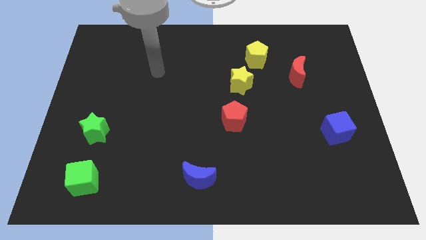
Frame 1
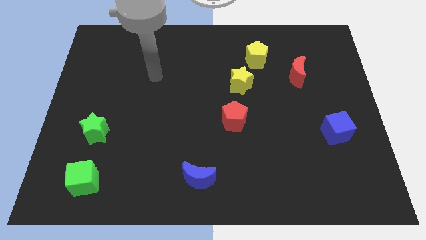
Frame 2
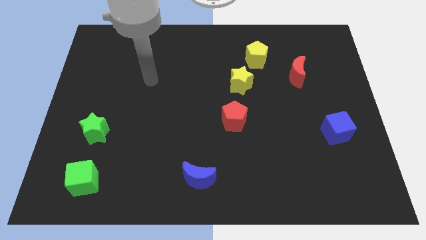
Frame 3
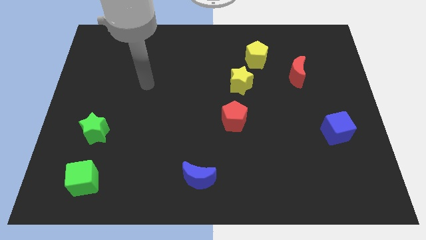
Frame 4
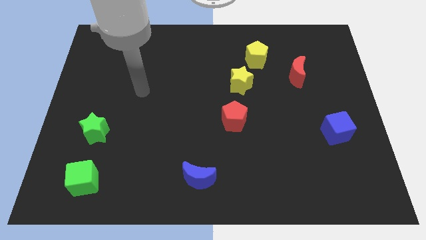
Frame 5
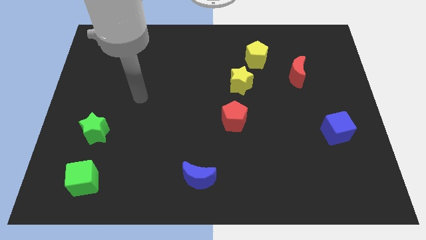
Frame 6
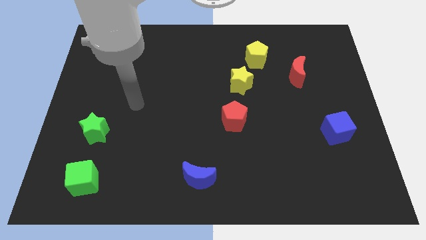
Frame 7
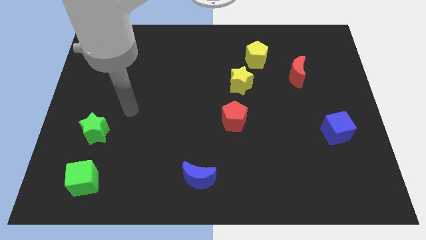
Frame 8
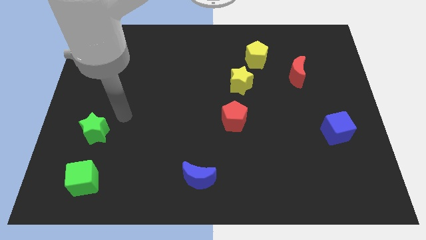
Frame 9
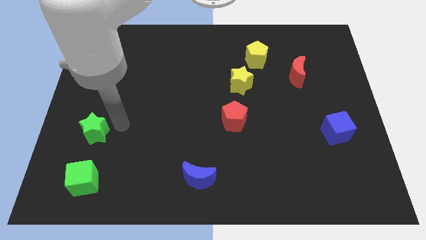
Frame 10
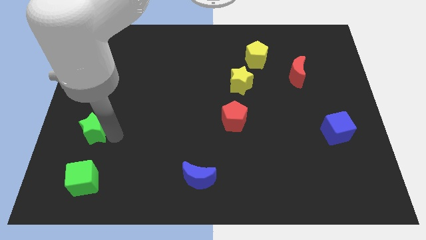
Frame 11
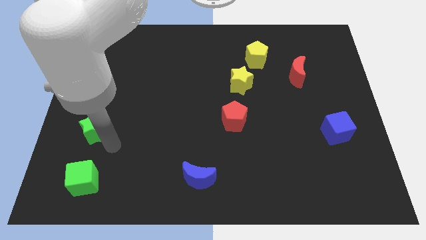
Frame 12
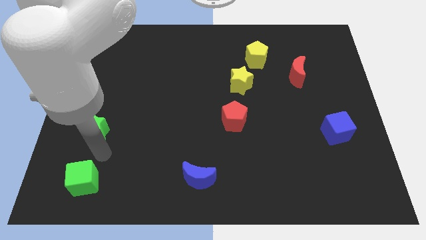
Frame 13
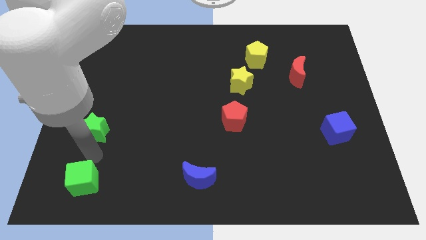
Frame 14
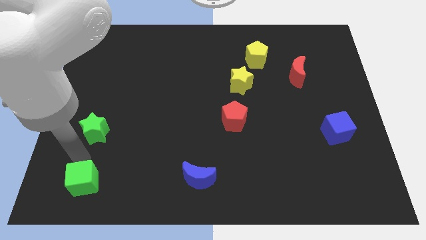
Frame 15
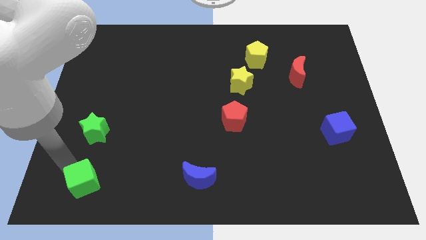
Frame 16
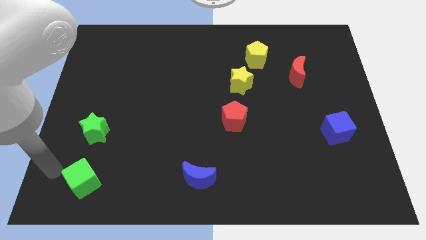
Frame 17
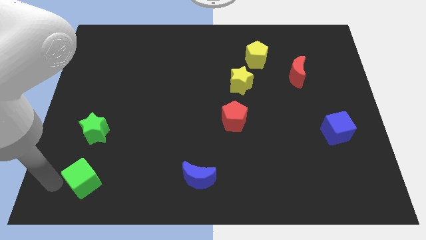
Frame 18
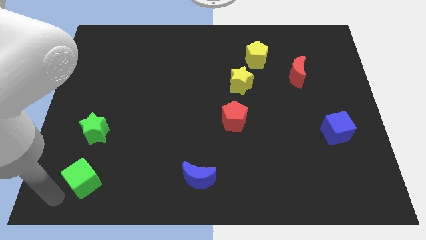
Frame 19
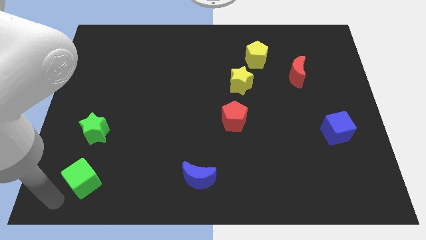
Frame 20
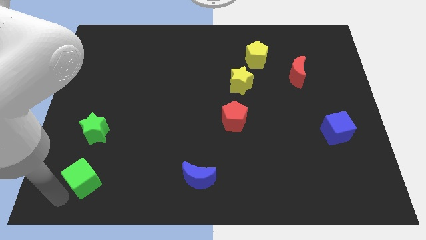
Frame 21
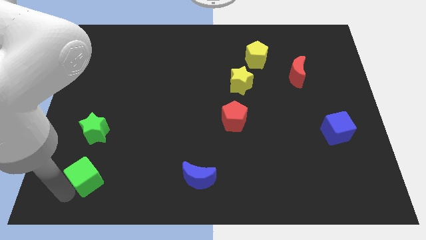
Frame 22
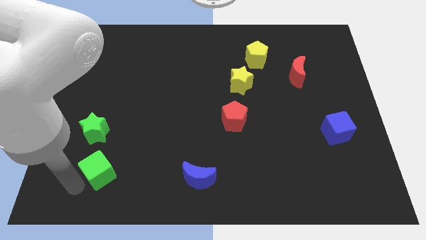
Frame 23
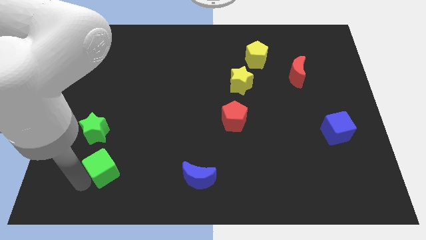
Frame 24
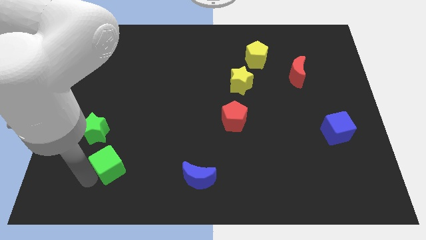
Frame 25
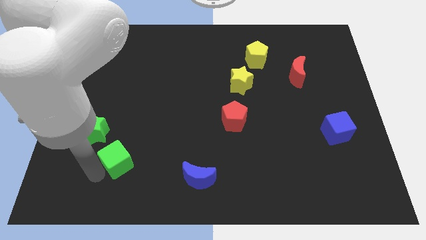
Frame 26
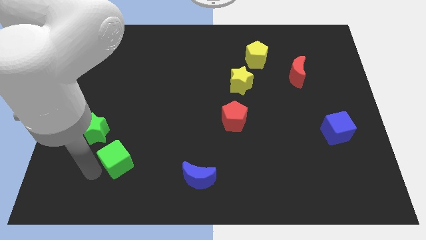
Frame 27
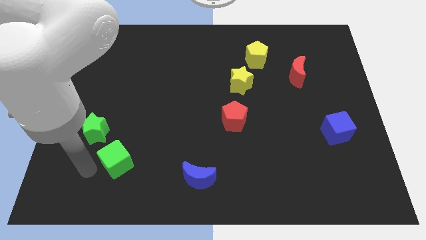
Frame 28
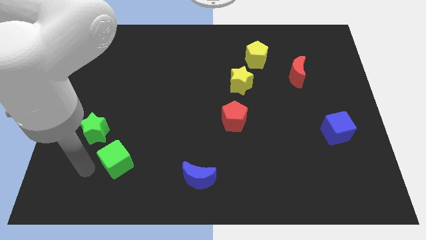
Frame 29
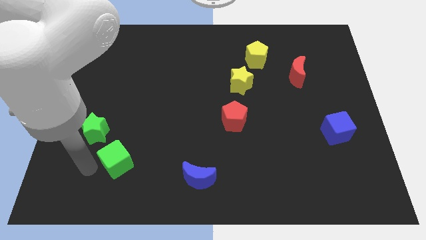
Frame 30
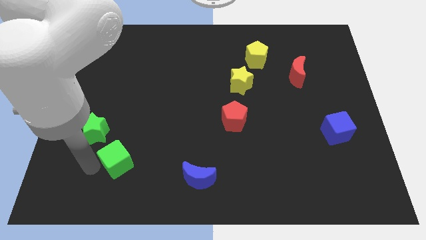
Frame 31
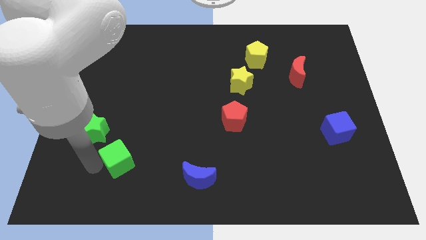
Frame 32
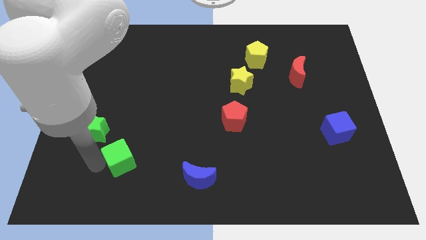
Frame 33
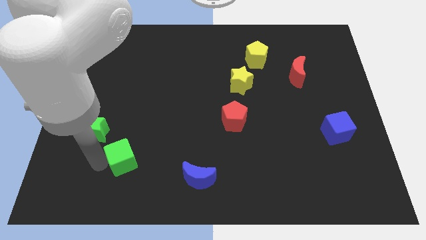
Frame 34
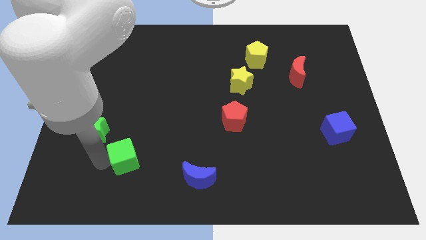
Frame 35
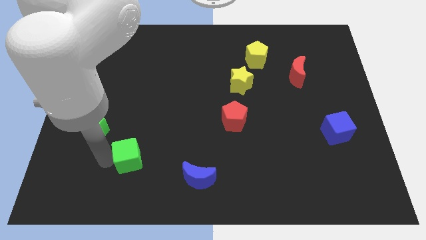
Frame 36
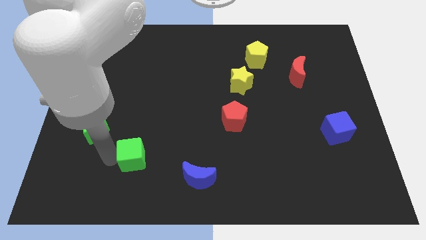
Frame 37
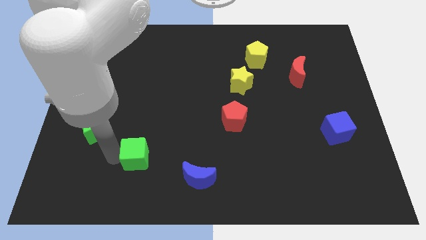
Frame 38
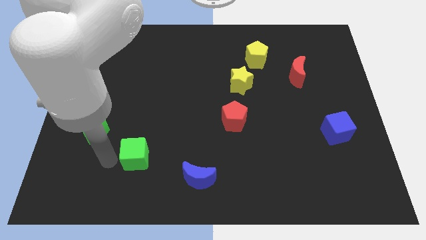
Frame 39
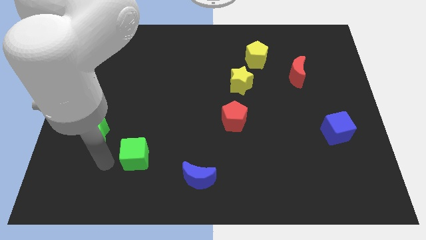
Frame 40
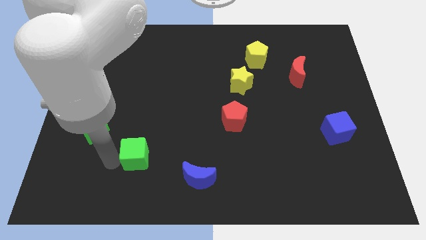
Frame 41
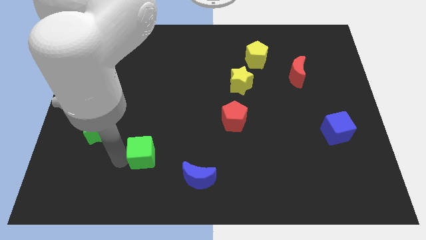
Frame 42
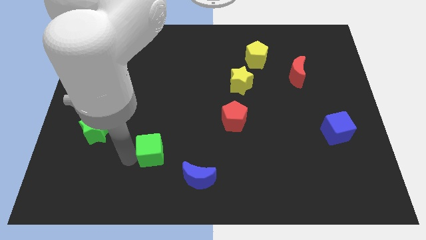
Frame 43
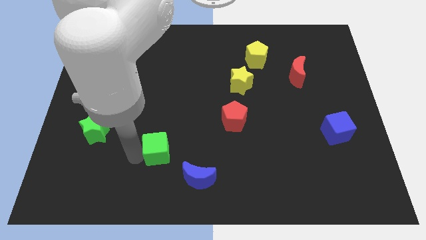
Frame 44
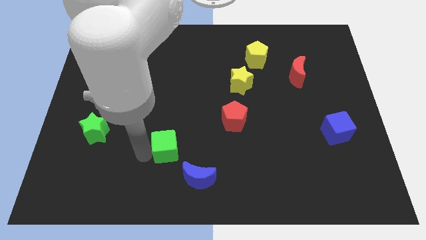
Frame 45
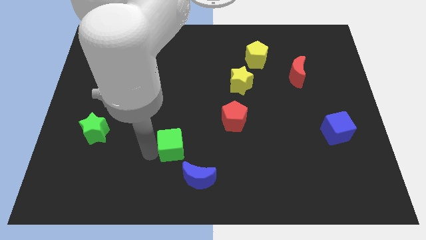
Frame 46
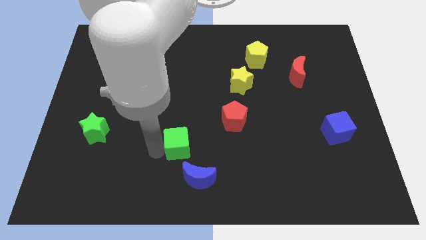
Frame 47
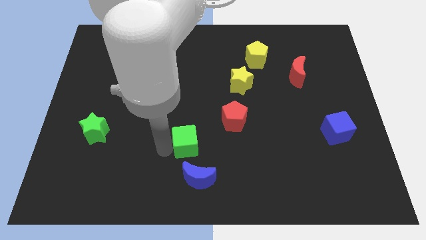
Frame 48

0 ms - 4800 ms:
push the green cube to the bottom left side of the red pentagon

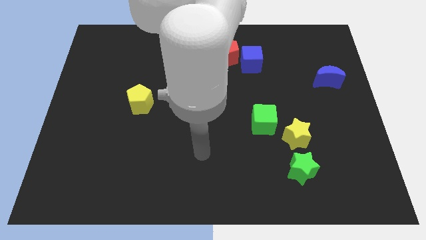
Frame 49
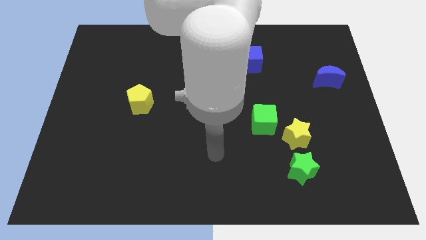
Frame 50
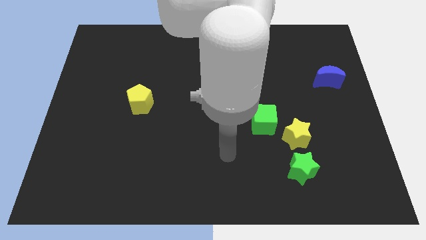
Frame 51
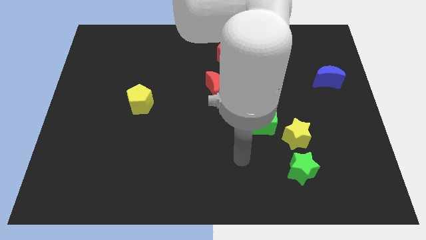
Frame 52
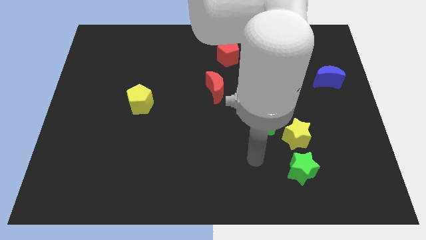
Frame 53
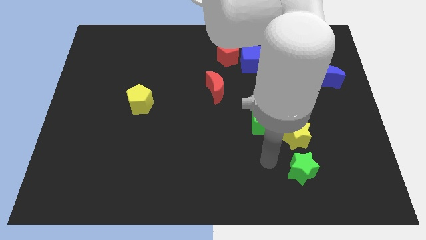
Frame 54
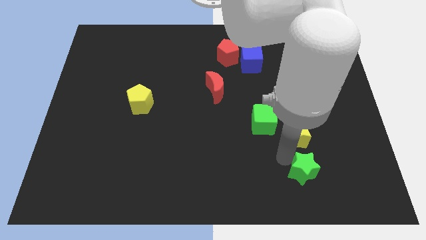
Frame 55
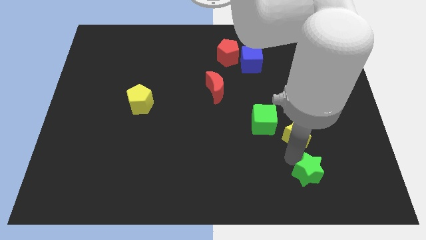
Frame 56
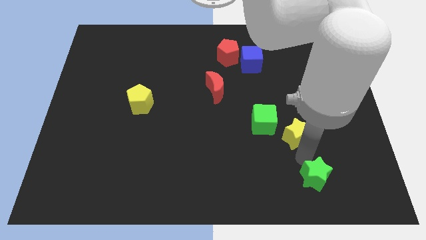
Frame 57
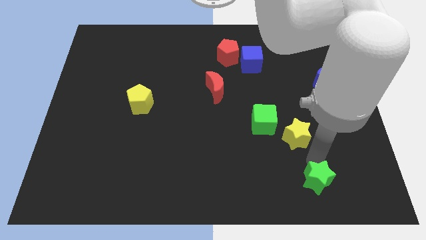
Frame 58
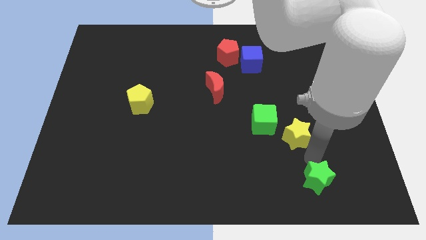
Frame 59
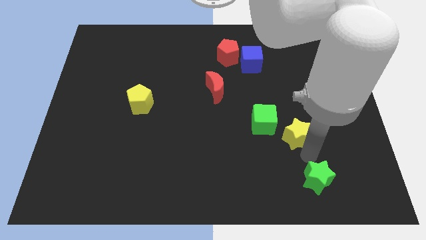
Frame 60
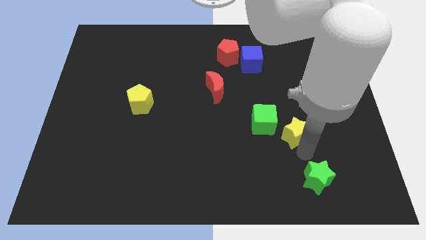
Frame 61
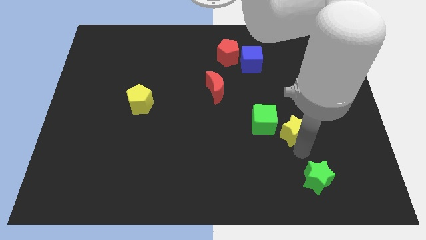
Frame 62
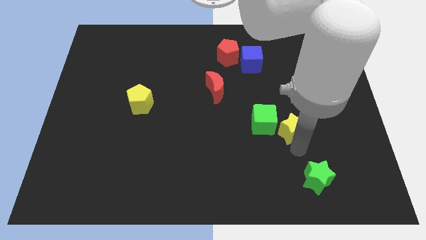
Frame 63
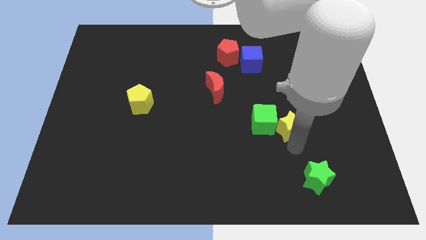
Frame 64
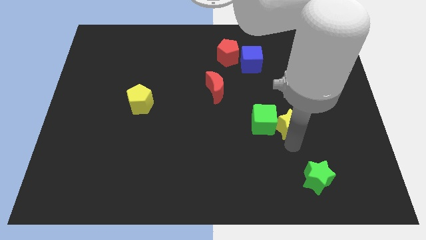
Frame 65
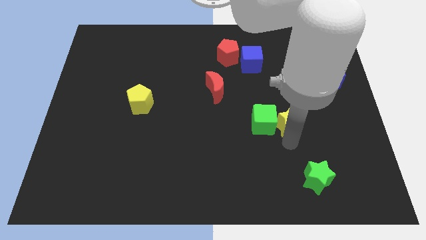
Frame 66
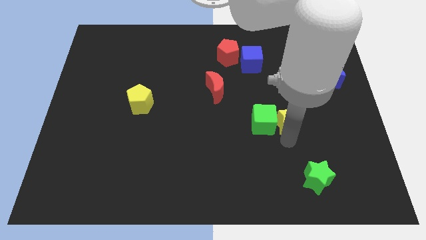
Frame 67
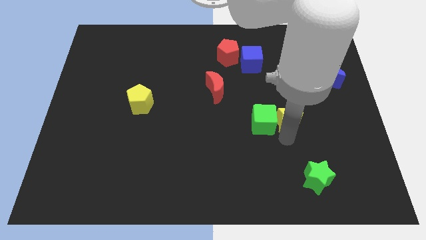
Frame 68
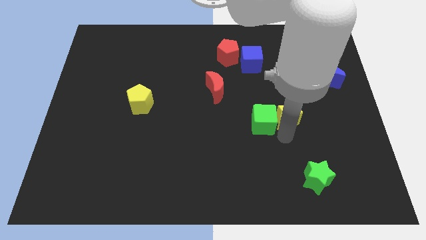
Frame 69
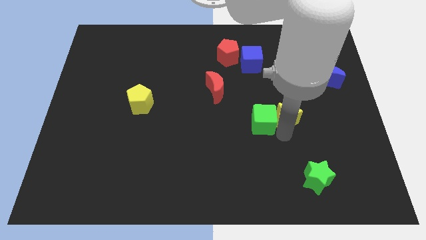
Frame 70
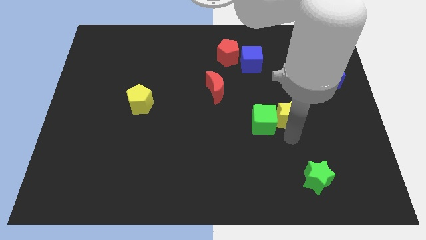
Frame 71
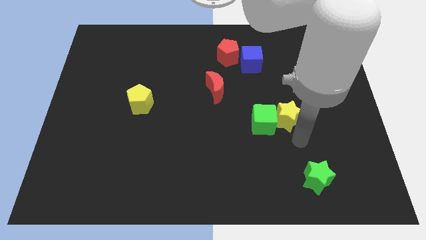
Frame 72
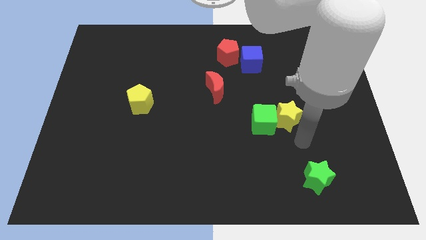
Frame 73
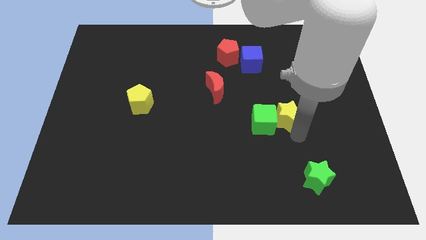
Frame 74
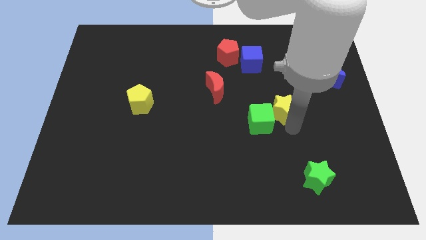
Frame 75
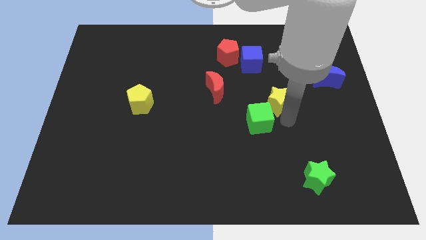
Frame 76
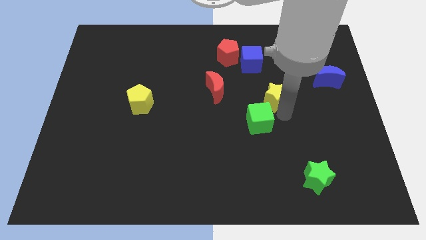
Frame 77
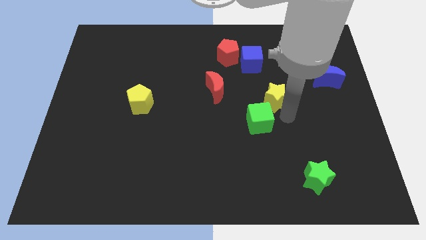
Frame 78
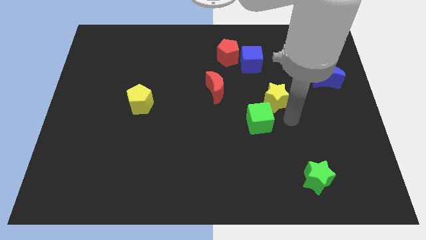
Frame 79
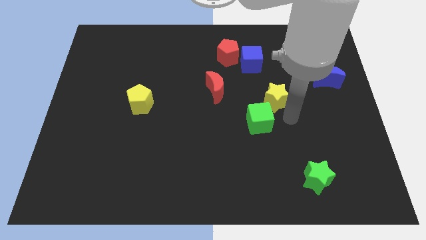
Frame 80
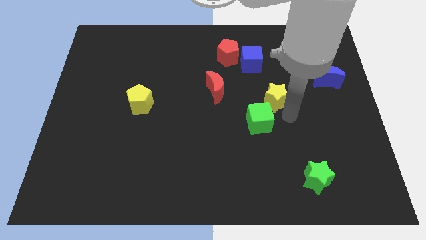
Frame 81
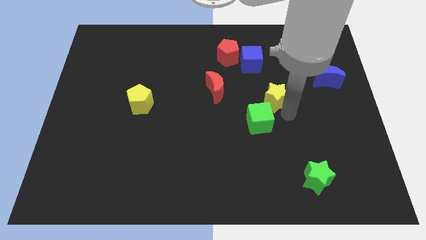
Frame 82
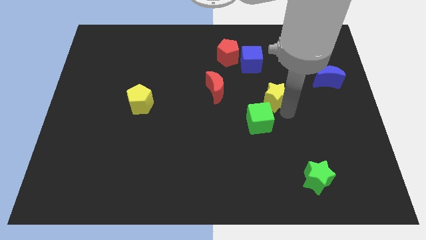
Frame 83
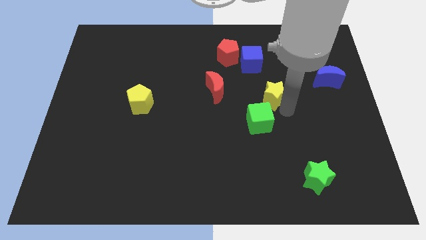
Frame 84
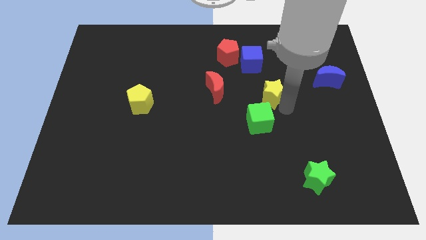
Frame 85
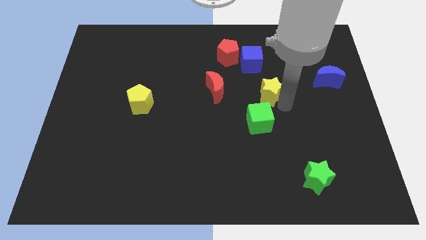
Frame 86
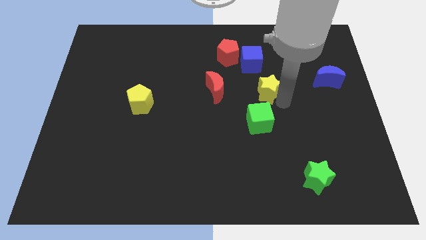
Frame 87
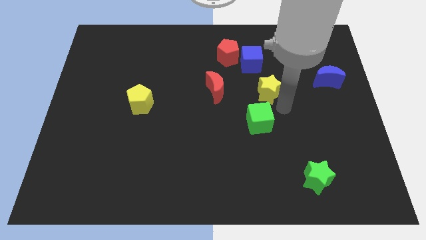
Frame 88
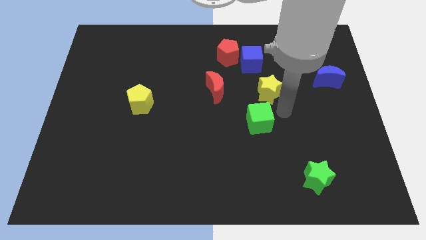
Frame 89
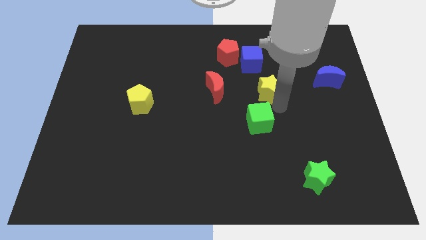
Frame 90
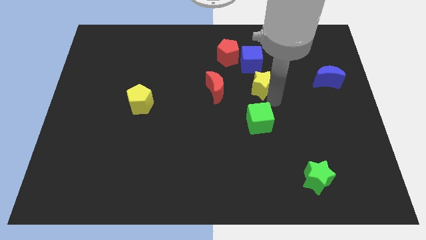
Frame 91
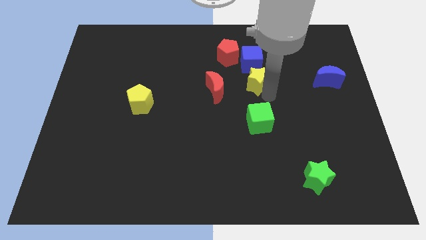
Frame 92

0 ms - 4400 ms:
push the yellow star to the bottom right side of the red pentagon
